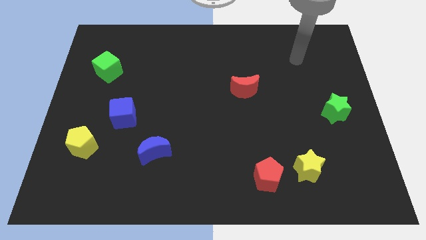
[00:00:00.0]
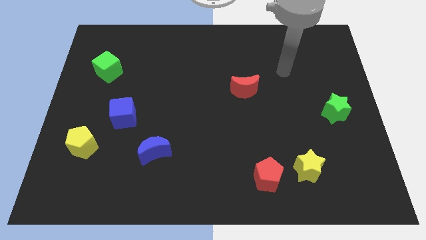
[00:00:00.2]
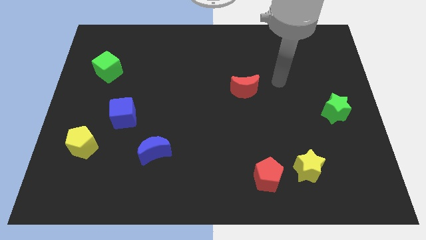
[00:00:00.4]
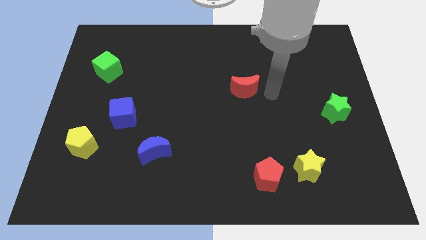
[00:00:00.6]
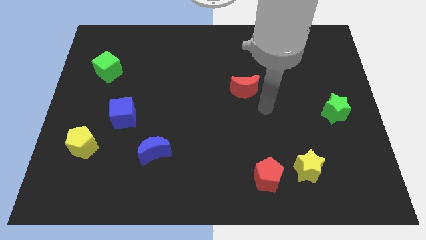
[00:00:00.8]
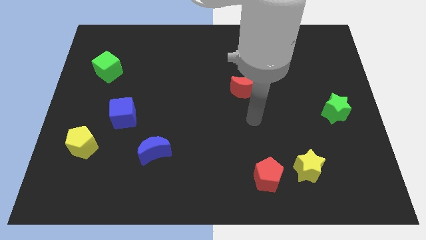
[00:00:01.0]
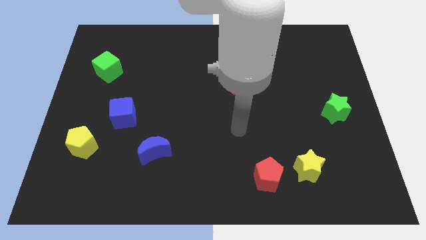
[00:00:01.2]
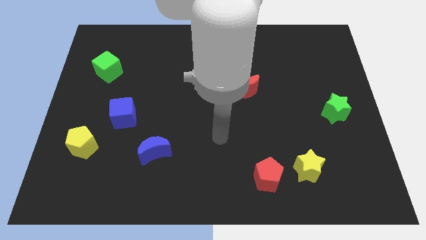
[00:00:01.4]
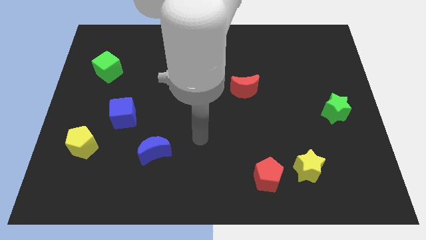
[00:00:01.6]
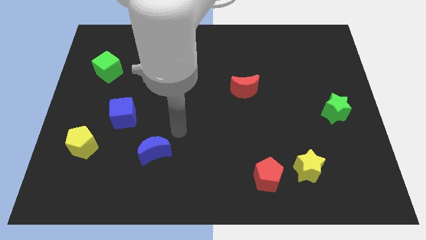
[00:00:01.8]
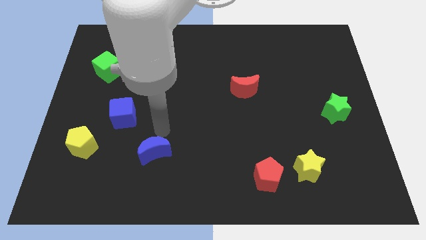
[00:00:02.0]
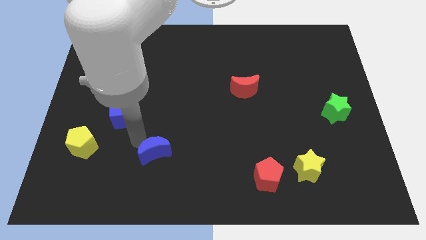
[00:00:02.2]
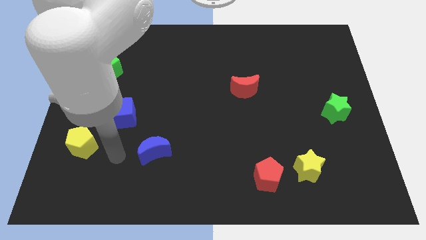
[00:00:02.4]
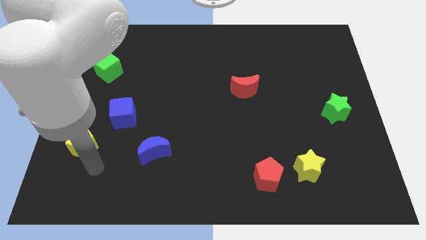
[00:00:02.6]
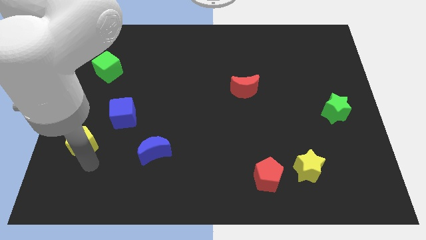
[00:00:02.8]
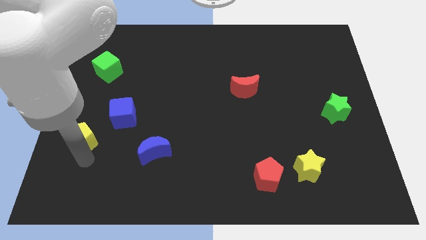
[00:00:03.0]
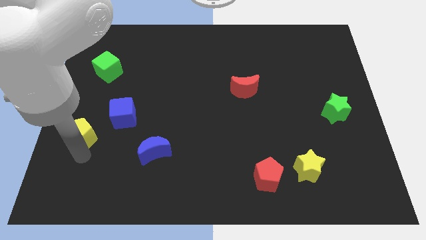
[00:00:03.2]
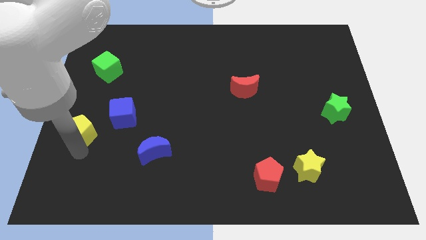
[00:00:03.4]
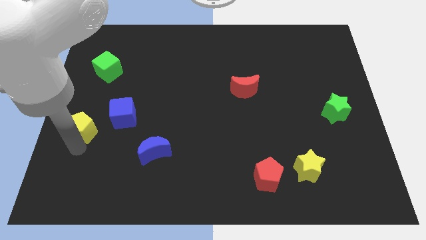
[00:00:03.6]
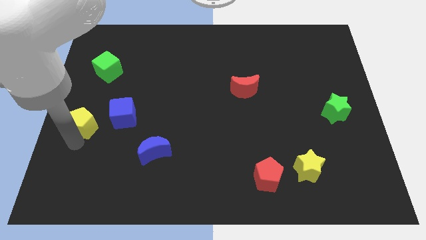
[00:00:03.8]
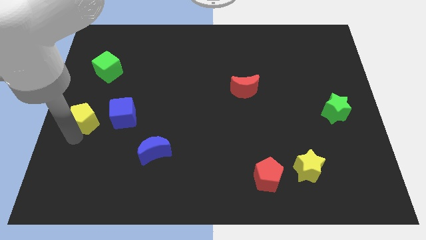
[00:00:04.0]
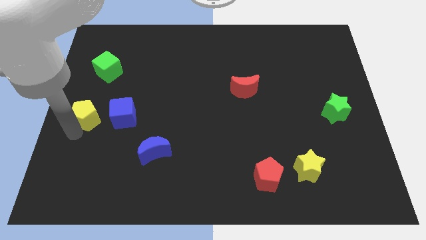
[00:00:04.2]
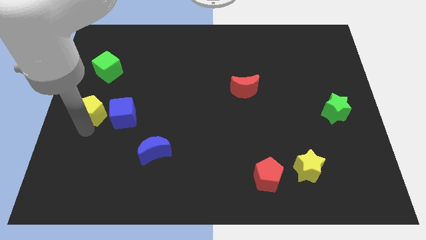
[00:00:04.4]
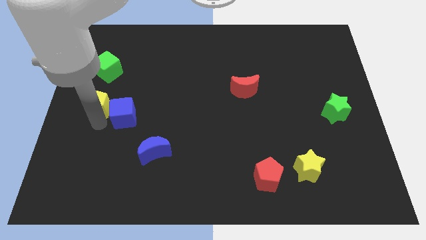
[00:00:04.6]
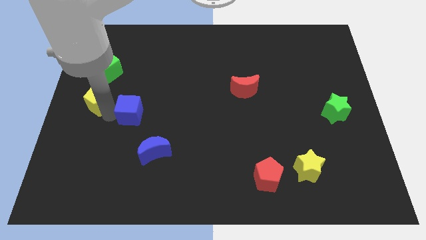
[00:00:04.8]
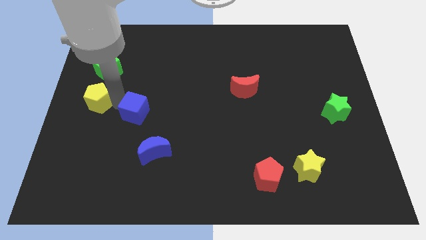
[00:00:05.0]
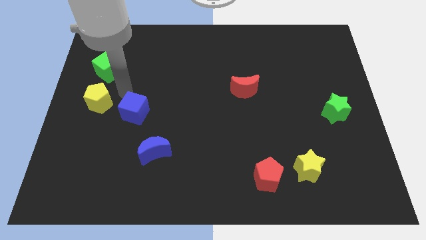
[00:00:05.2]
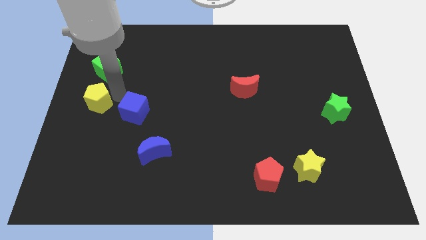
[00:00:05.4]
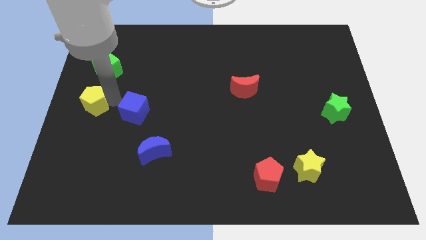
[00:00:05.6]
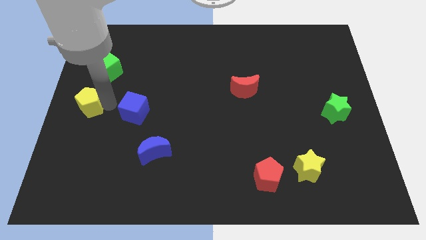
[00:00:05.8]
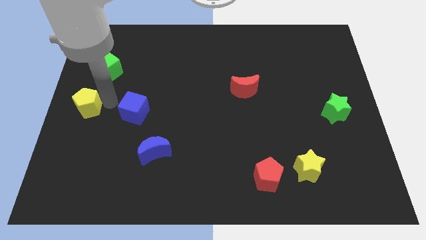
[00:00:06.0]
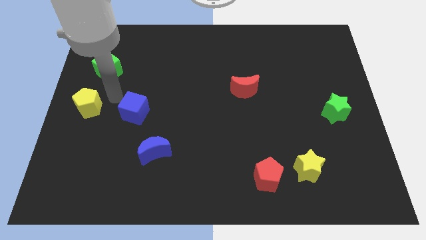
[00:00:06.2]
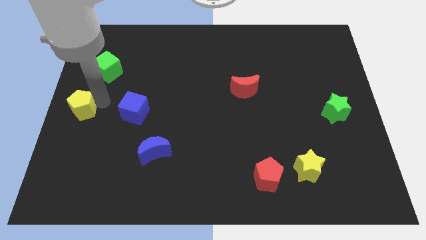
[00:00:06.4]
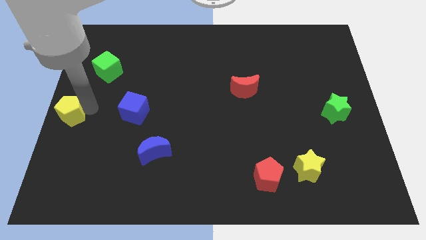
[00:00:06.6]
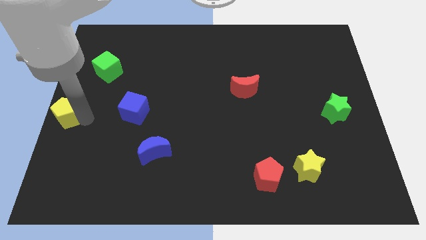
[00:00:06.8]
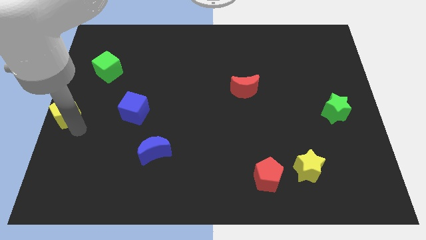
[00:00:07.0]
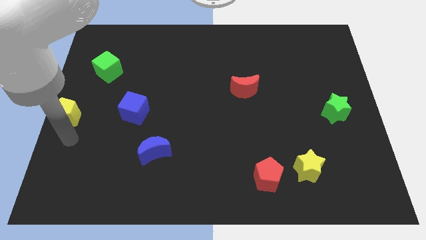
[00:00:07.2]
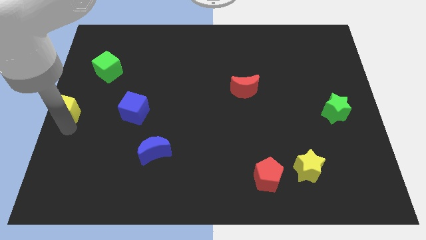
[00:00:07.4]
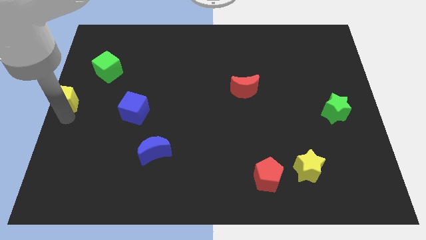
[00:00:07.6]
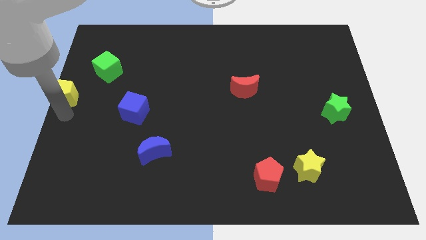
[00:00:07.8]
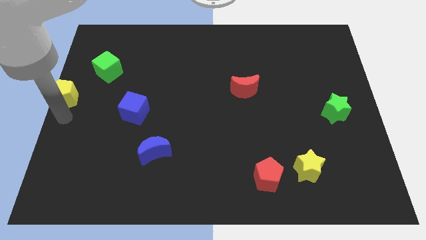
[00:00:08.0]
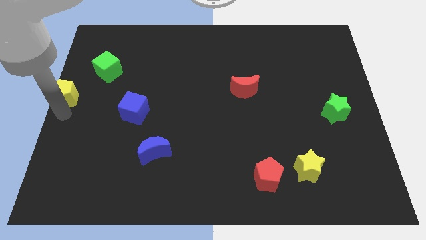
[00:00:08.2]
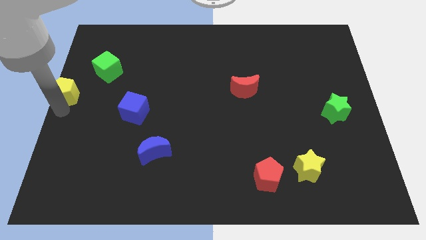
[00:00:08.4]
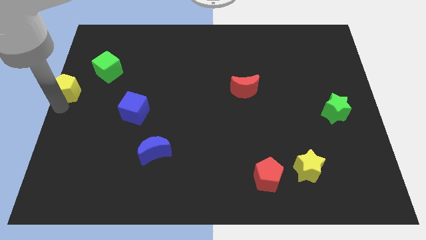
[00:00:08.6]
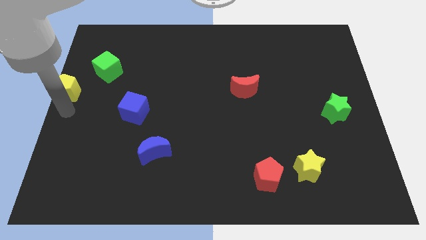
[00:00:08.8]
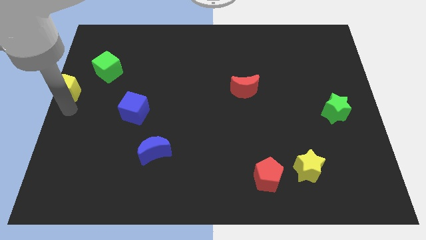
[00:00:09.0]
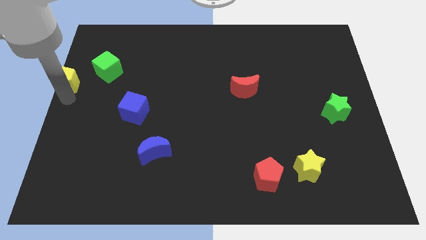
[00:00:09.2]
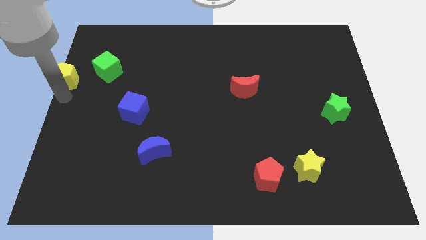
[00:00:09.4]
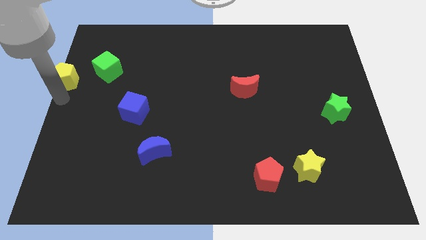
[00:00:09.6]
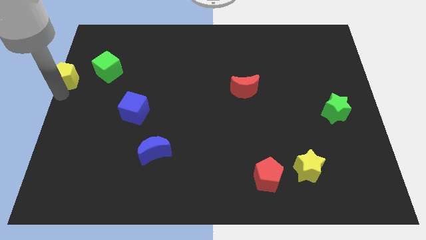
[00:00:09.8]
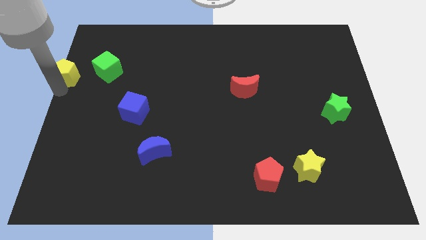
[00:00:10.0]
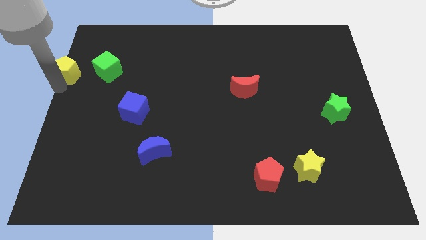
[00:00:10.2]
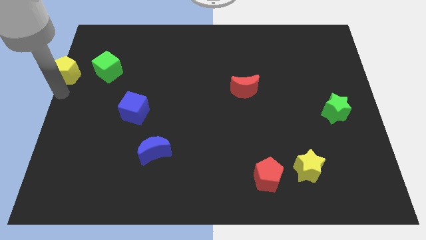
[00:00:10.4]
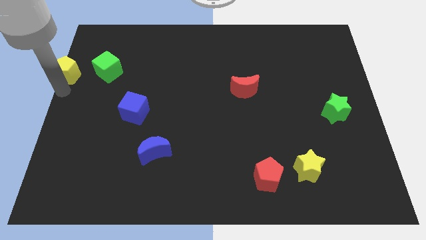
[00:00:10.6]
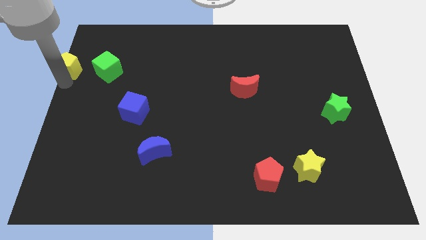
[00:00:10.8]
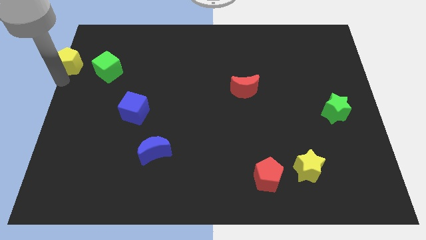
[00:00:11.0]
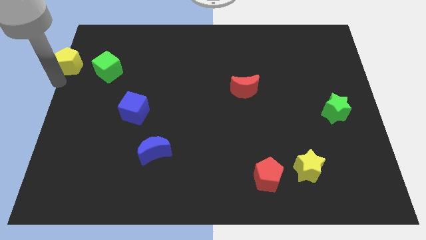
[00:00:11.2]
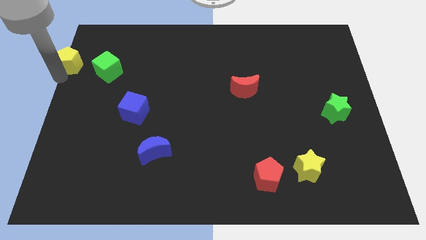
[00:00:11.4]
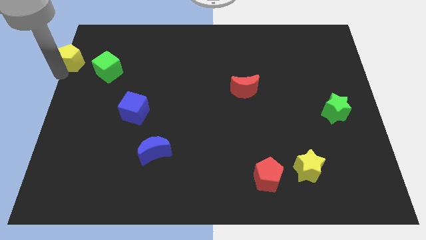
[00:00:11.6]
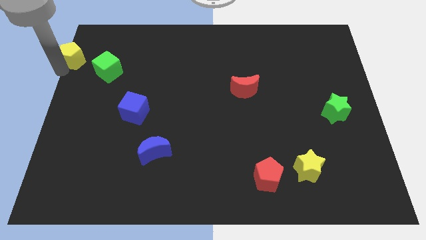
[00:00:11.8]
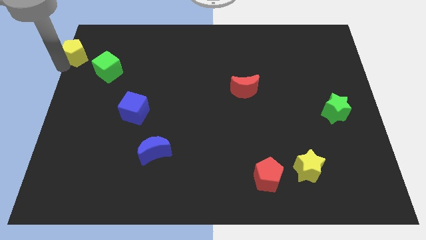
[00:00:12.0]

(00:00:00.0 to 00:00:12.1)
slide the yellow pentagon to the upper left corner

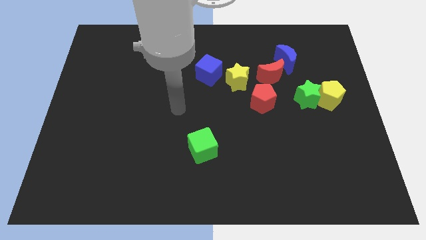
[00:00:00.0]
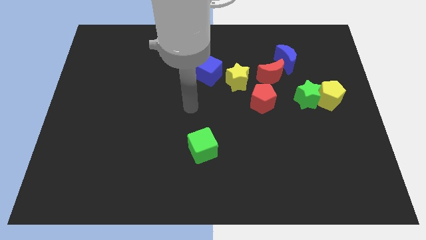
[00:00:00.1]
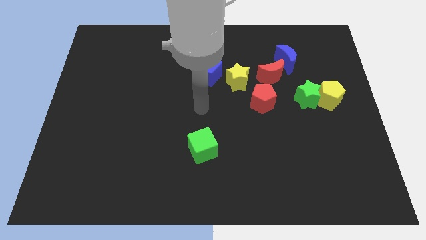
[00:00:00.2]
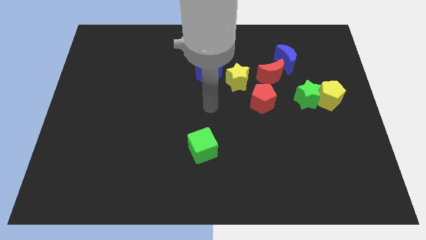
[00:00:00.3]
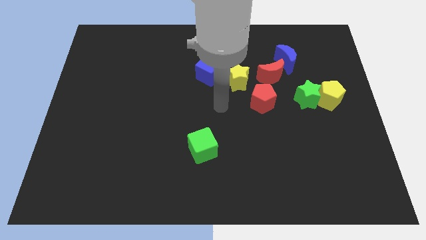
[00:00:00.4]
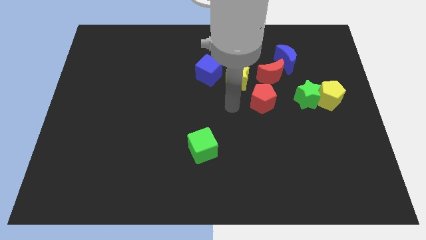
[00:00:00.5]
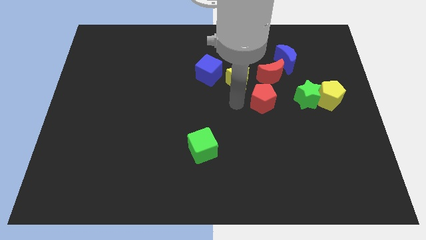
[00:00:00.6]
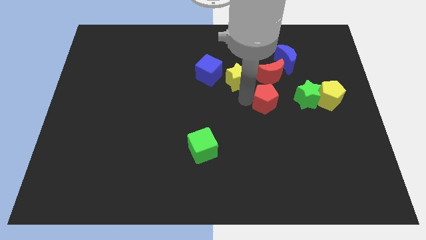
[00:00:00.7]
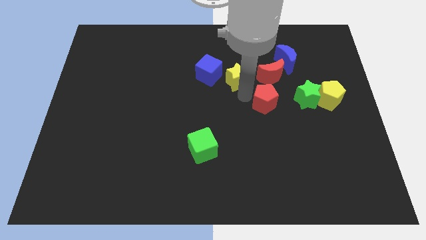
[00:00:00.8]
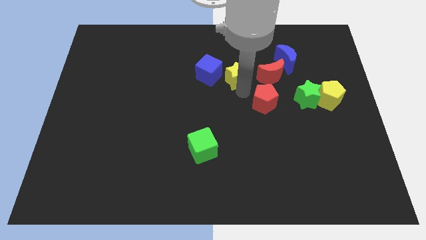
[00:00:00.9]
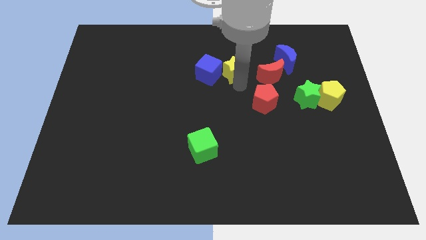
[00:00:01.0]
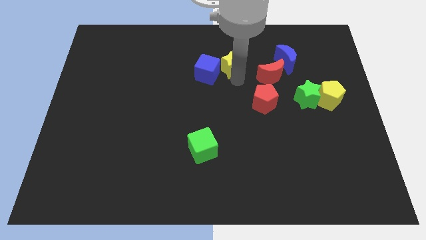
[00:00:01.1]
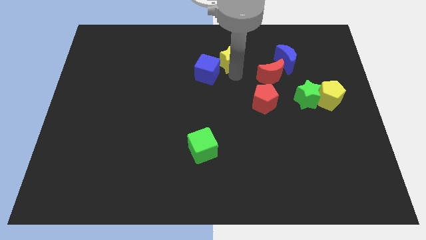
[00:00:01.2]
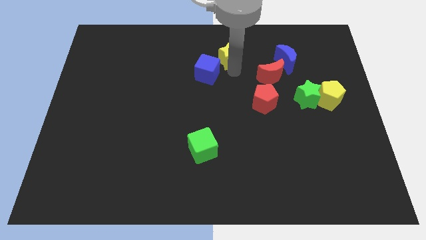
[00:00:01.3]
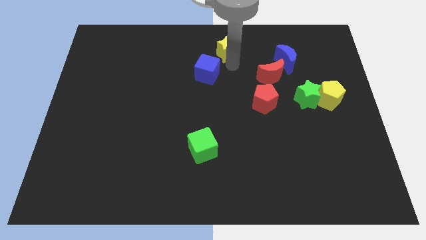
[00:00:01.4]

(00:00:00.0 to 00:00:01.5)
slide the yellow star to the top
